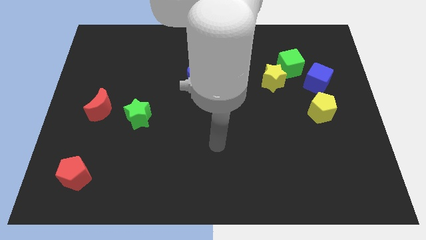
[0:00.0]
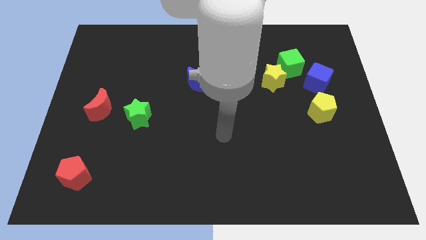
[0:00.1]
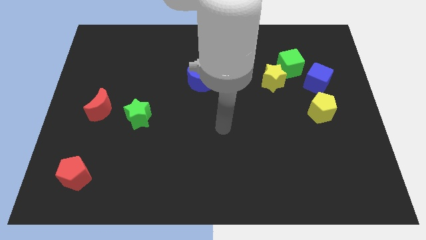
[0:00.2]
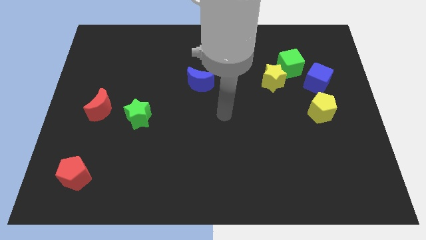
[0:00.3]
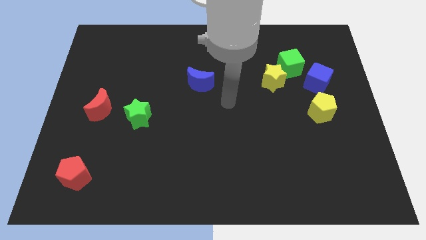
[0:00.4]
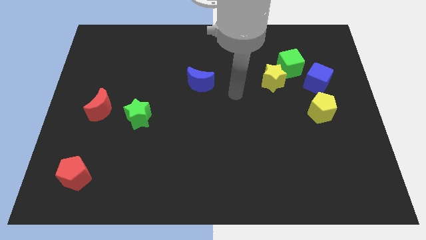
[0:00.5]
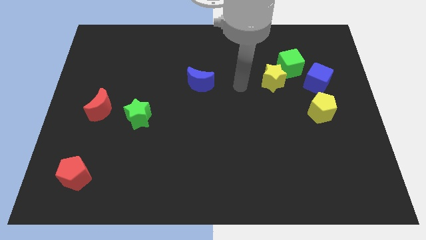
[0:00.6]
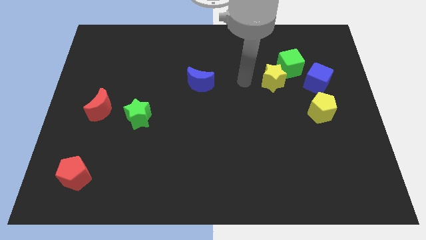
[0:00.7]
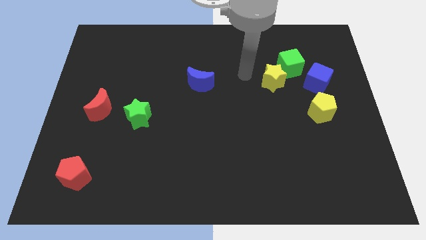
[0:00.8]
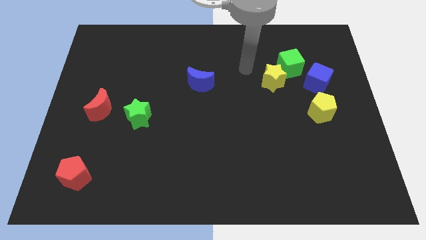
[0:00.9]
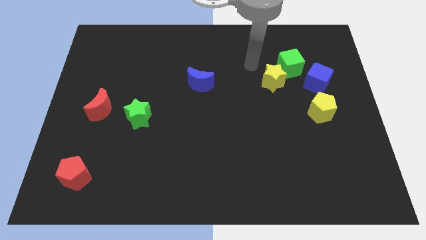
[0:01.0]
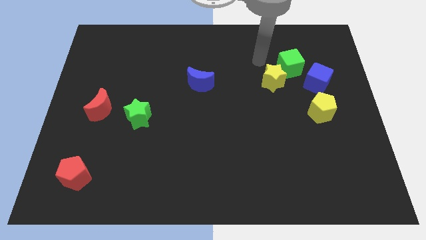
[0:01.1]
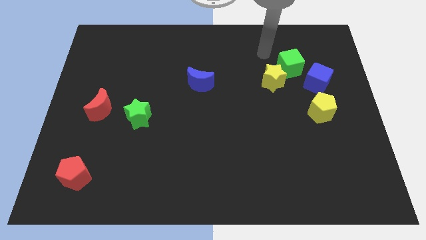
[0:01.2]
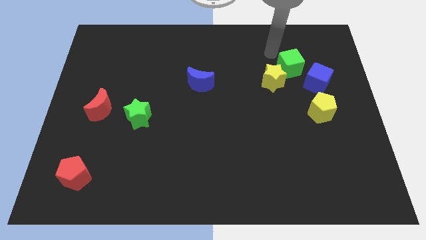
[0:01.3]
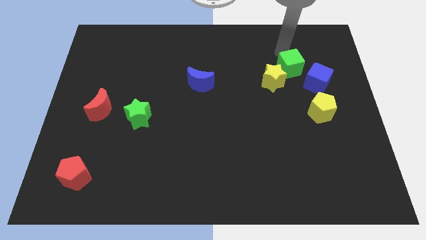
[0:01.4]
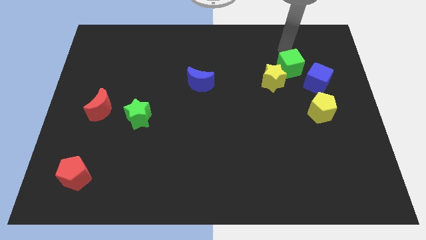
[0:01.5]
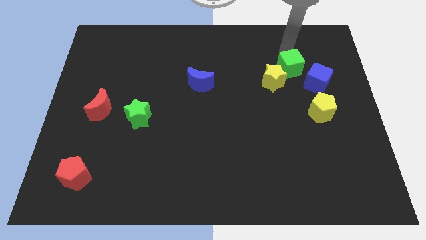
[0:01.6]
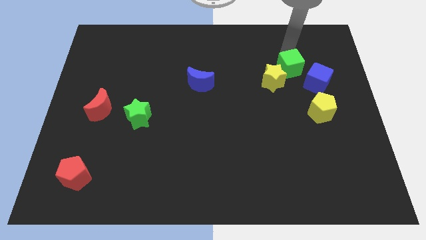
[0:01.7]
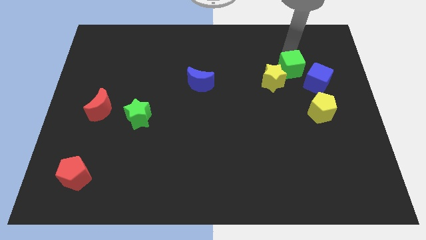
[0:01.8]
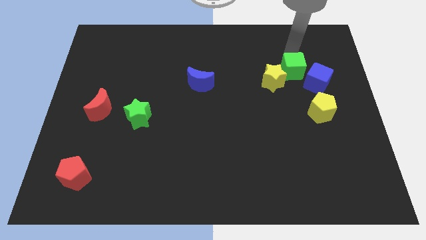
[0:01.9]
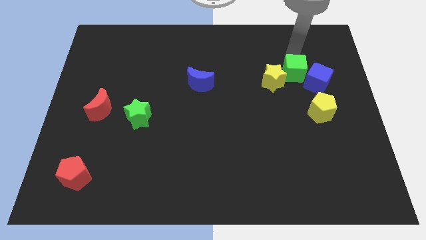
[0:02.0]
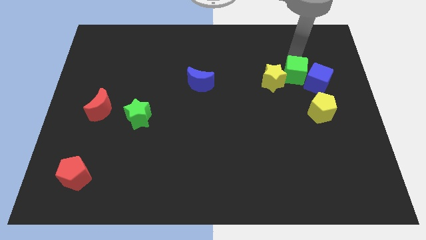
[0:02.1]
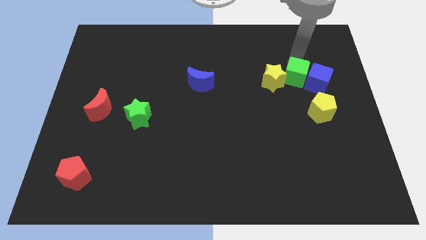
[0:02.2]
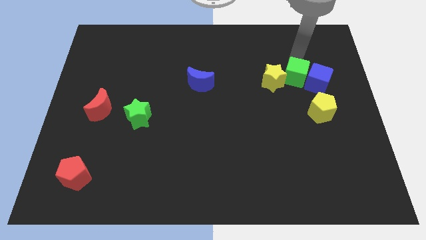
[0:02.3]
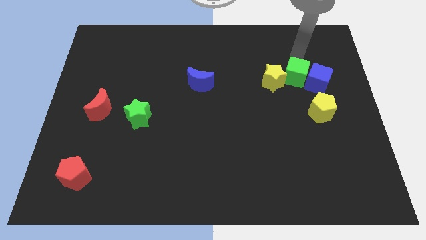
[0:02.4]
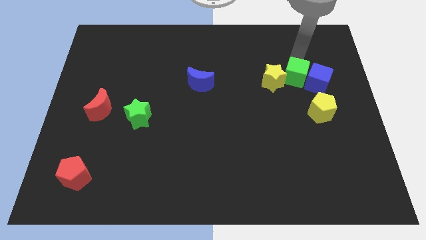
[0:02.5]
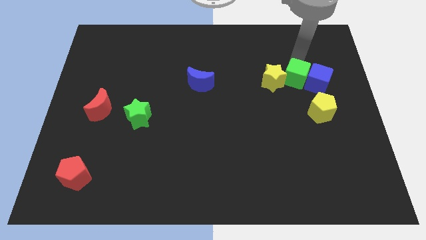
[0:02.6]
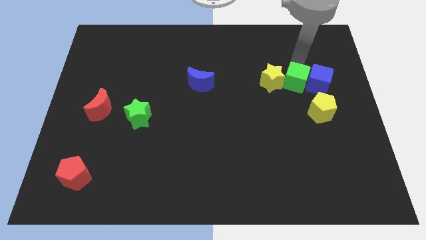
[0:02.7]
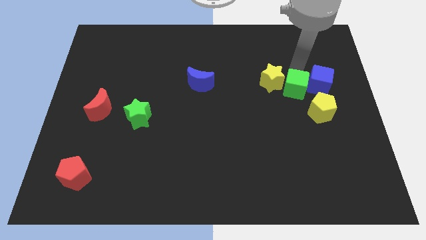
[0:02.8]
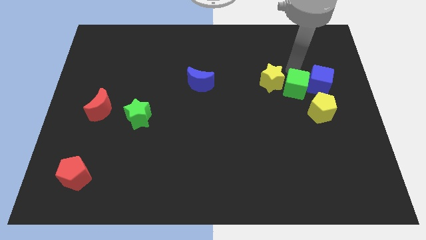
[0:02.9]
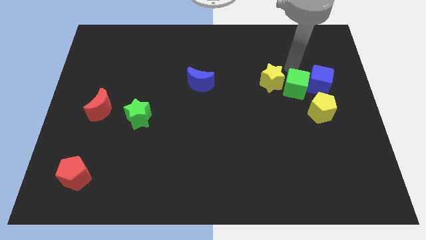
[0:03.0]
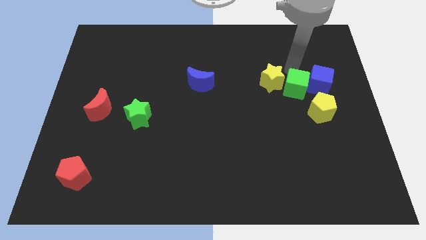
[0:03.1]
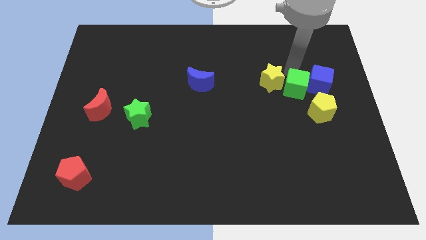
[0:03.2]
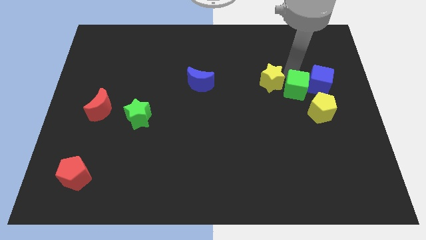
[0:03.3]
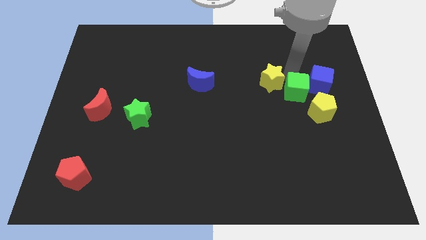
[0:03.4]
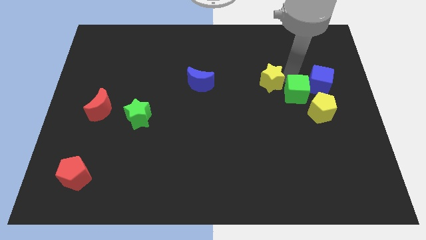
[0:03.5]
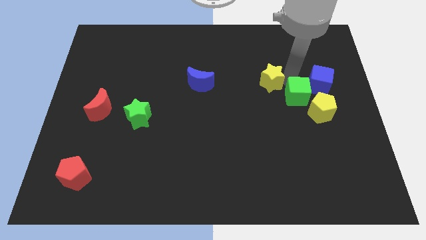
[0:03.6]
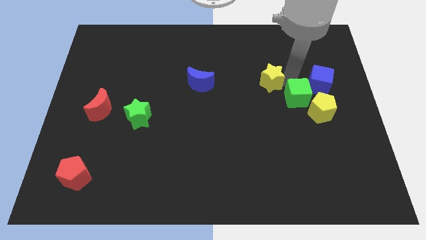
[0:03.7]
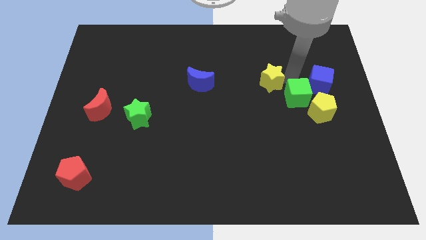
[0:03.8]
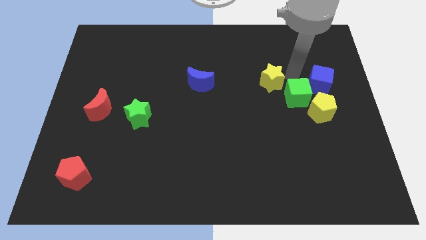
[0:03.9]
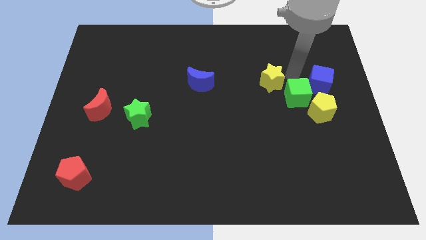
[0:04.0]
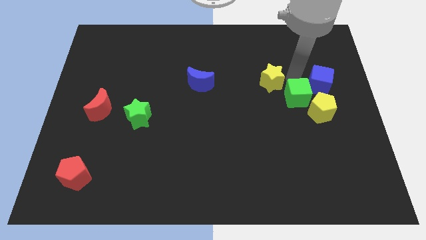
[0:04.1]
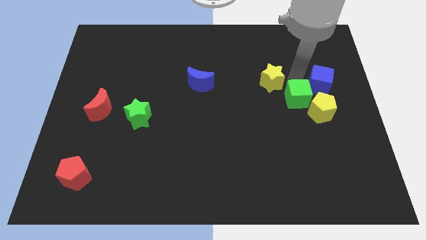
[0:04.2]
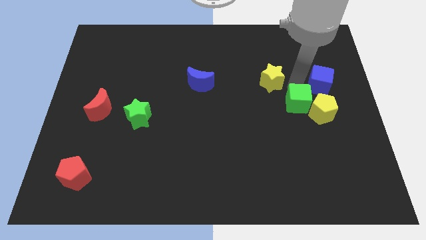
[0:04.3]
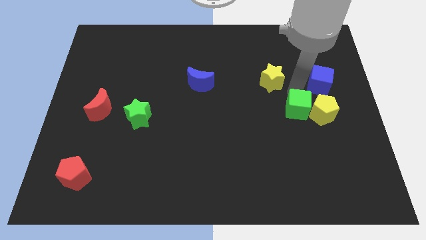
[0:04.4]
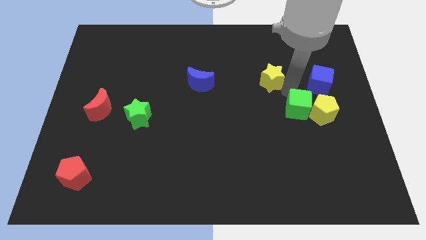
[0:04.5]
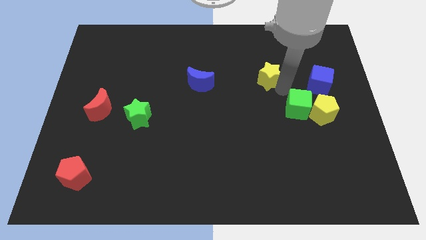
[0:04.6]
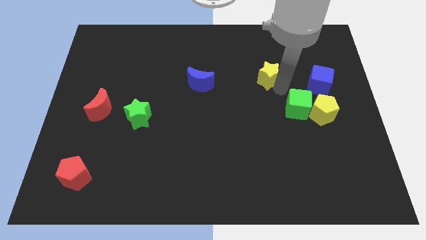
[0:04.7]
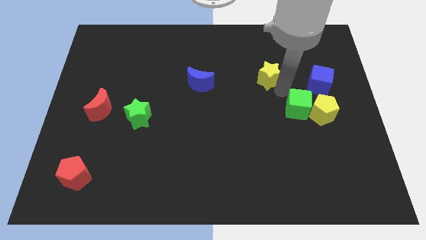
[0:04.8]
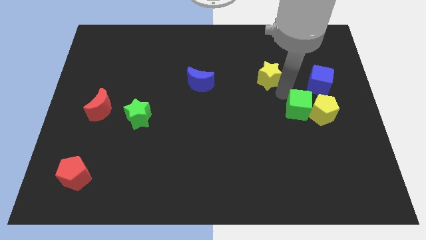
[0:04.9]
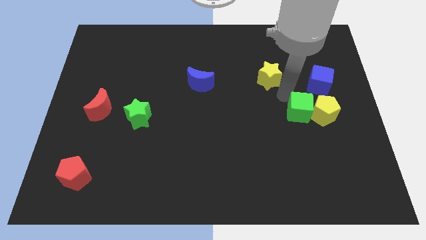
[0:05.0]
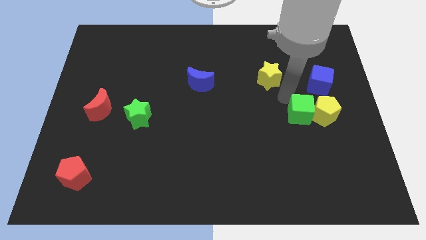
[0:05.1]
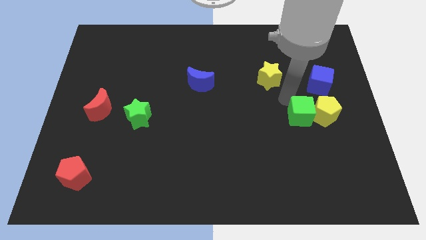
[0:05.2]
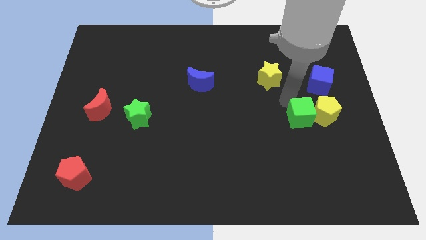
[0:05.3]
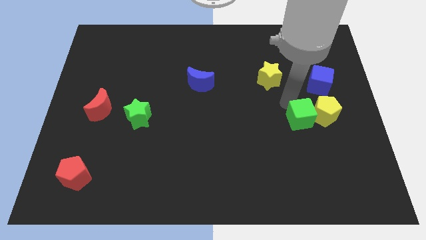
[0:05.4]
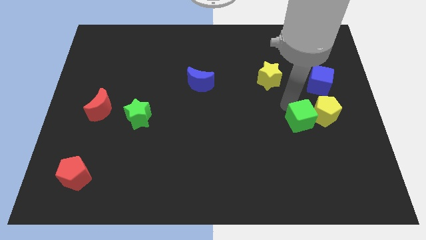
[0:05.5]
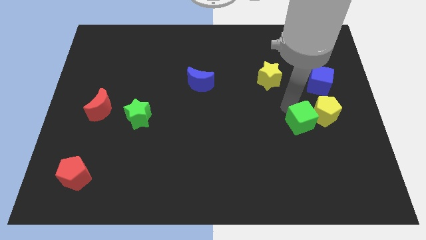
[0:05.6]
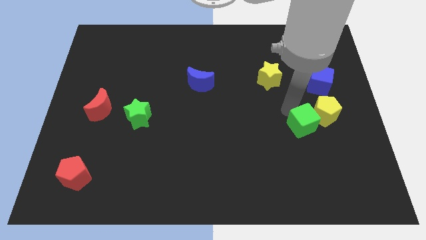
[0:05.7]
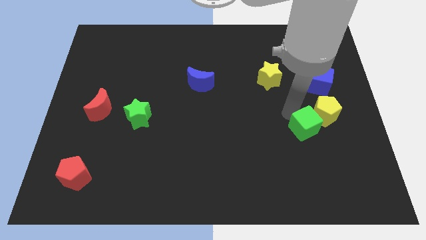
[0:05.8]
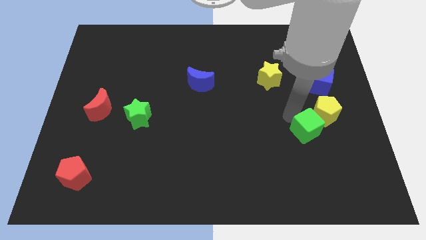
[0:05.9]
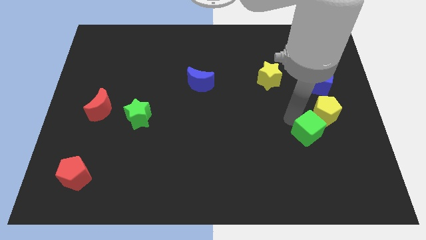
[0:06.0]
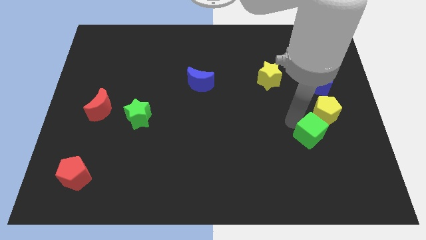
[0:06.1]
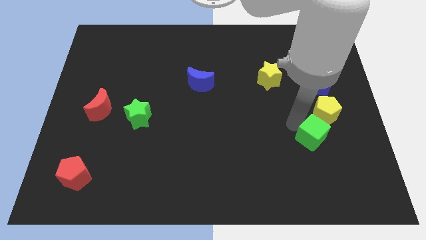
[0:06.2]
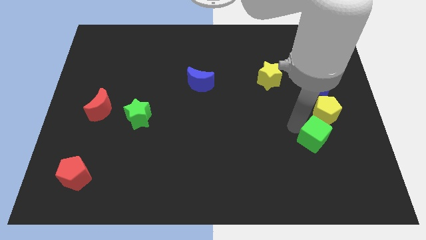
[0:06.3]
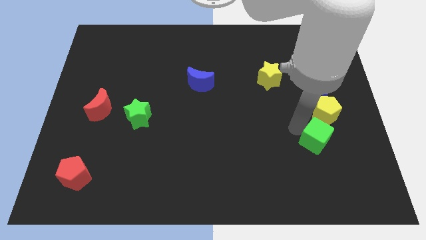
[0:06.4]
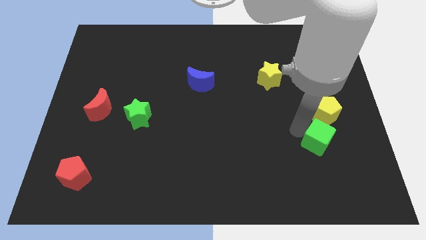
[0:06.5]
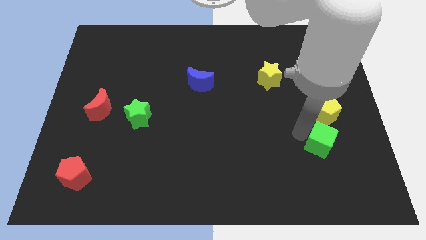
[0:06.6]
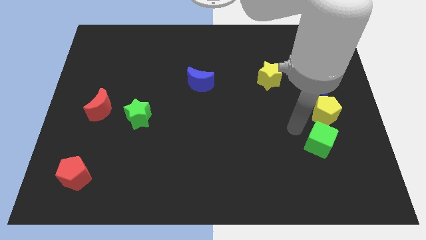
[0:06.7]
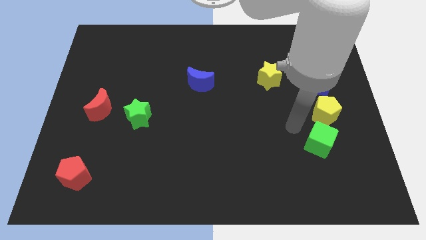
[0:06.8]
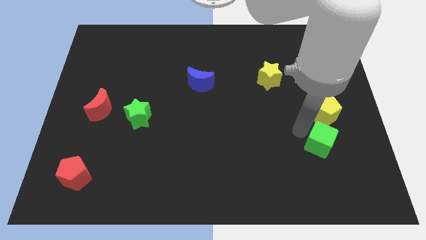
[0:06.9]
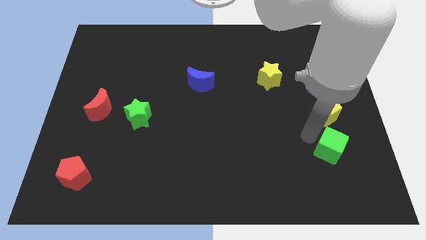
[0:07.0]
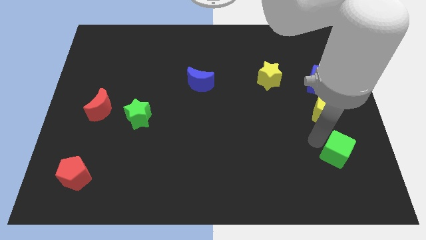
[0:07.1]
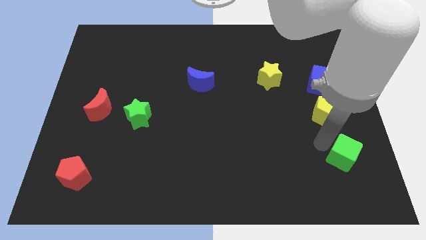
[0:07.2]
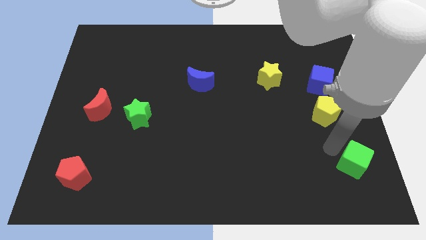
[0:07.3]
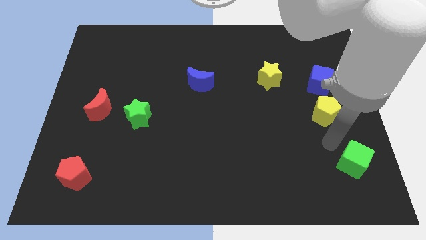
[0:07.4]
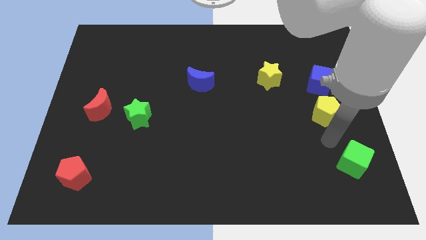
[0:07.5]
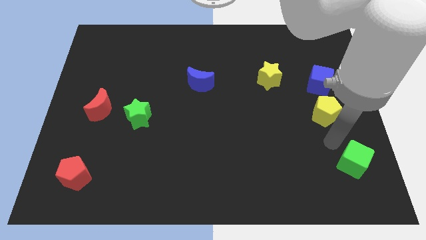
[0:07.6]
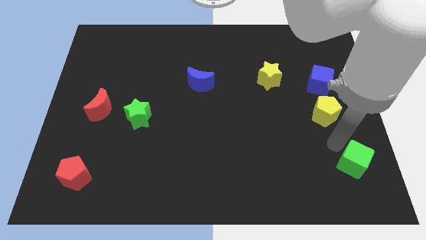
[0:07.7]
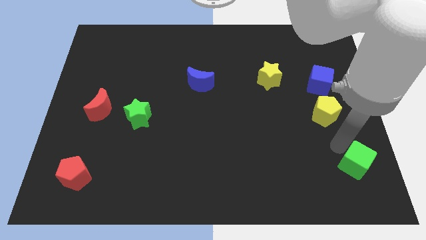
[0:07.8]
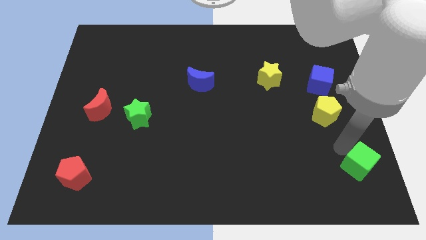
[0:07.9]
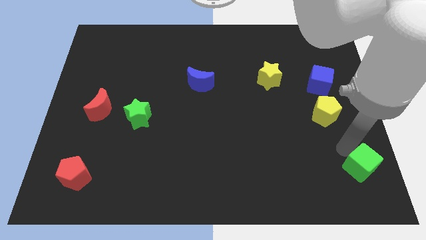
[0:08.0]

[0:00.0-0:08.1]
push the green cube to the bottom right
